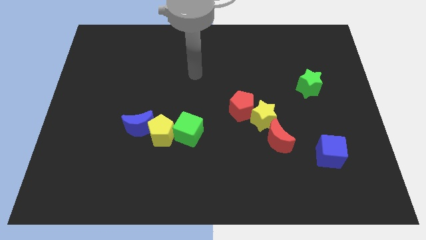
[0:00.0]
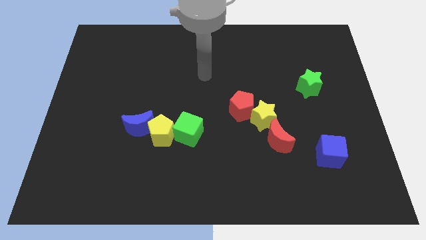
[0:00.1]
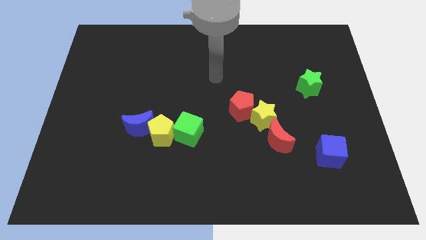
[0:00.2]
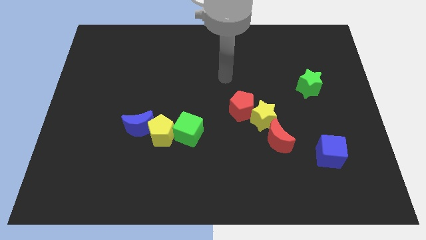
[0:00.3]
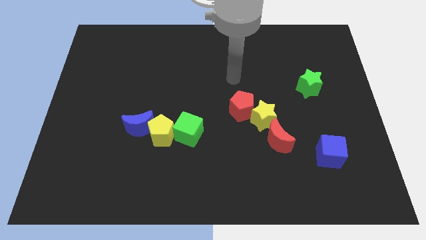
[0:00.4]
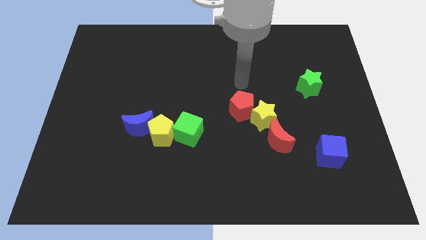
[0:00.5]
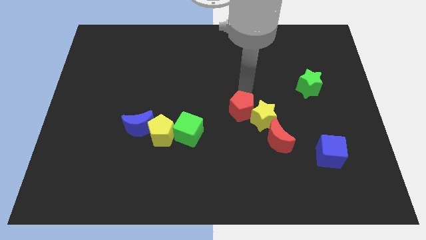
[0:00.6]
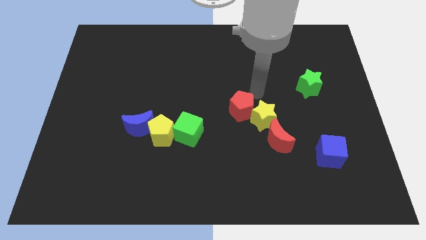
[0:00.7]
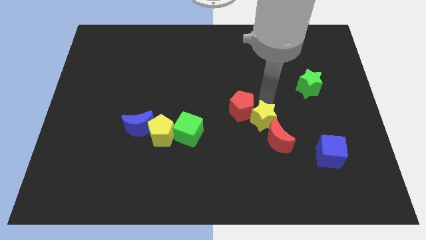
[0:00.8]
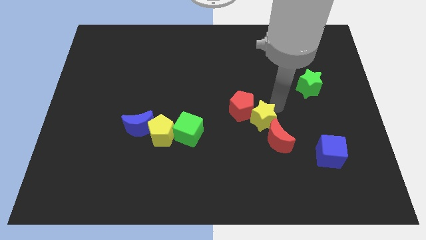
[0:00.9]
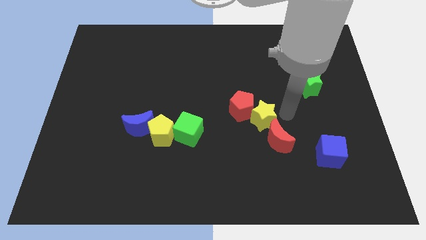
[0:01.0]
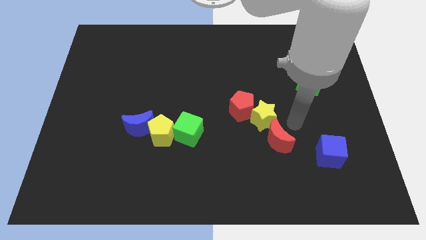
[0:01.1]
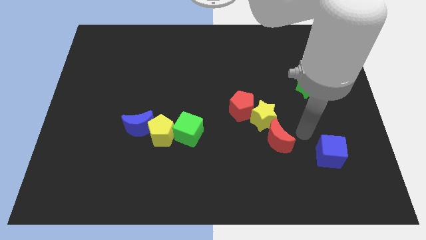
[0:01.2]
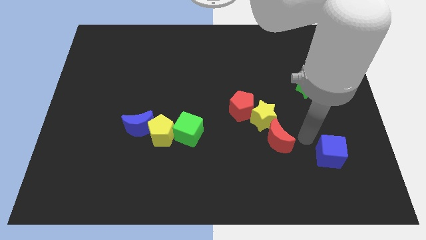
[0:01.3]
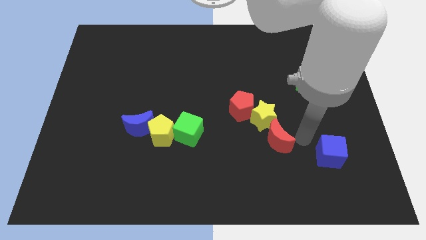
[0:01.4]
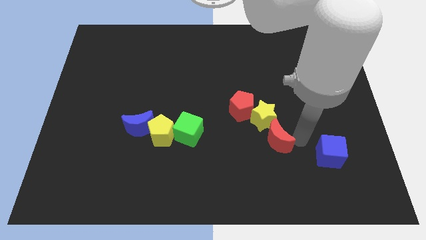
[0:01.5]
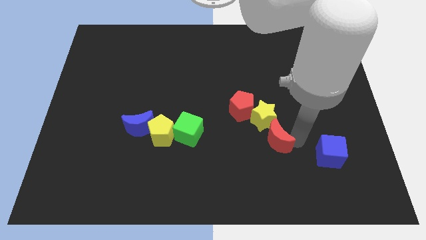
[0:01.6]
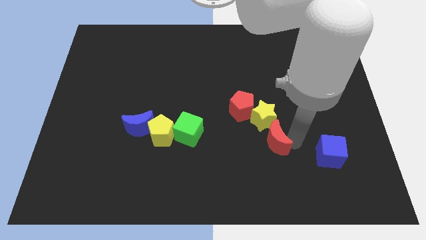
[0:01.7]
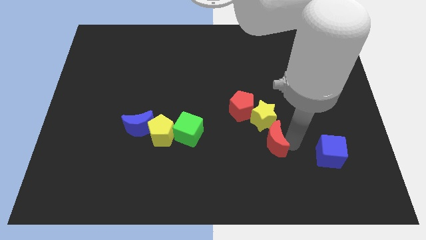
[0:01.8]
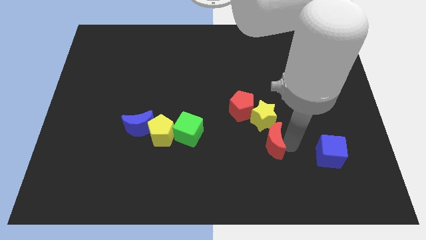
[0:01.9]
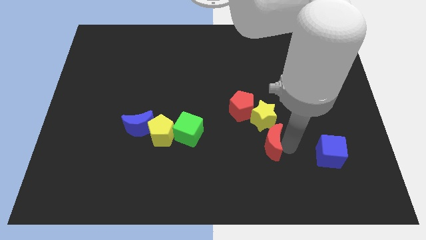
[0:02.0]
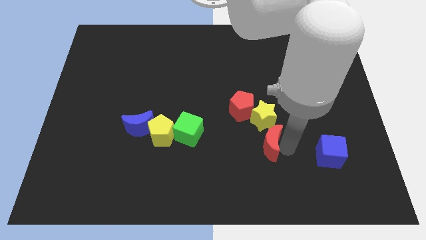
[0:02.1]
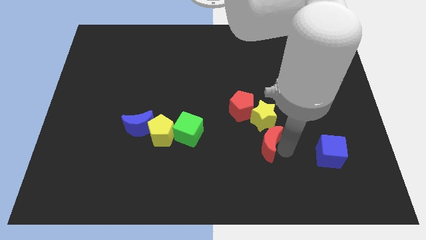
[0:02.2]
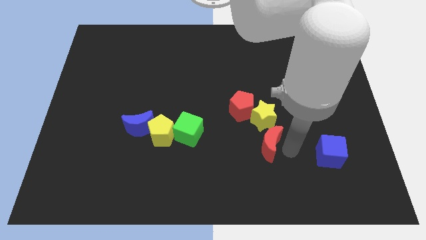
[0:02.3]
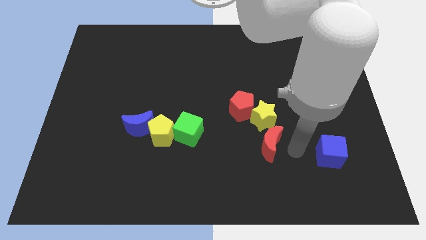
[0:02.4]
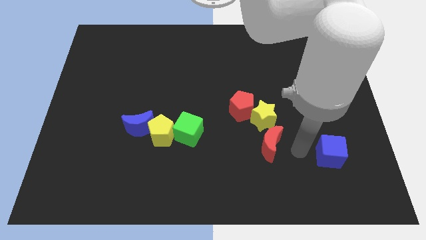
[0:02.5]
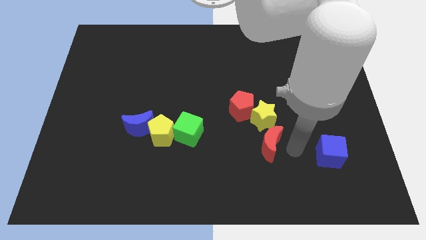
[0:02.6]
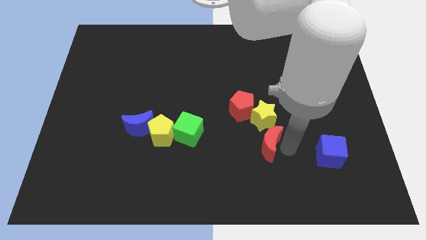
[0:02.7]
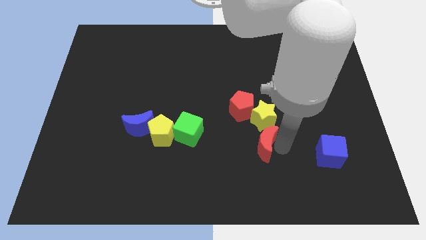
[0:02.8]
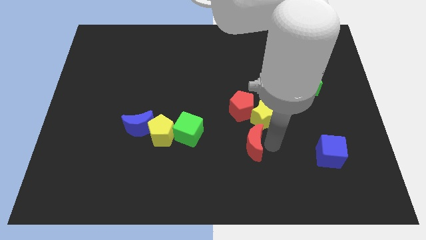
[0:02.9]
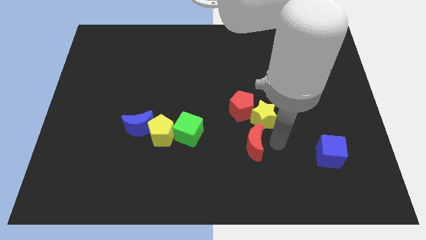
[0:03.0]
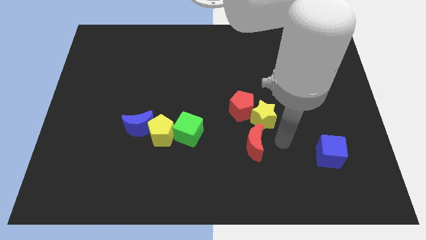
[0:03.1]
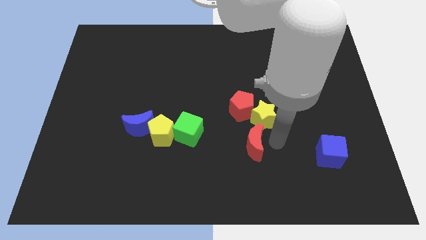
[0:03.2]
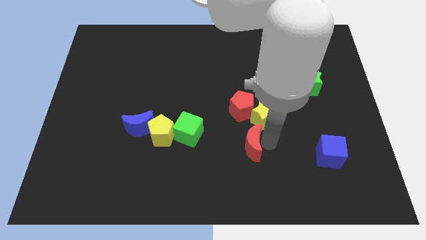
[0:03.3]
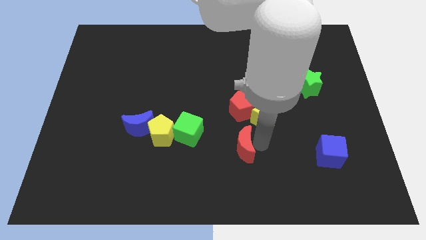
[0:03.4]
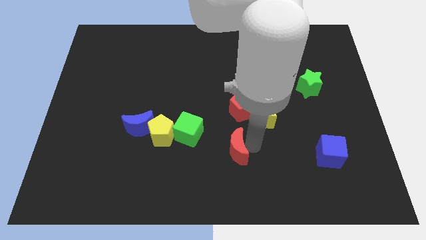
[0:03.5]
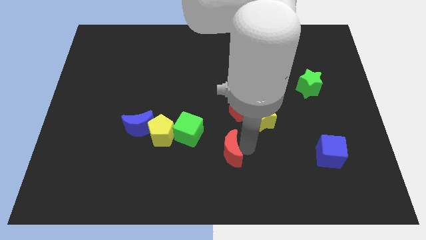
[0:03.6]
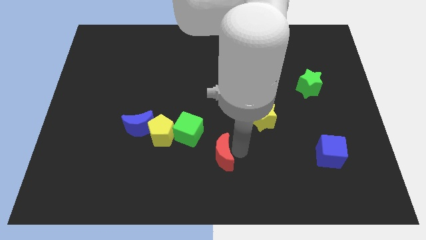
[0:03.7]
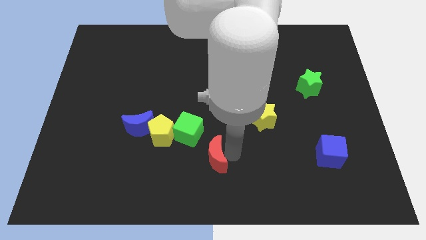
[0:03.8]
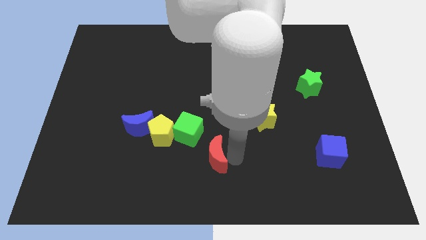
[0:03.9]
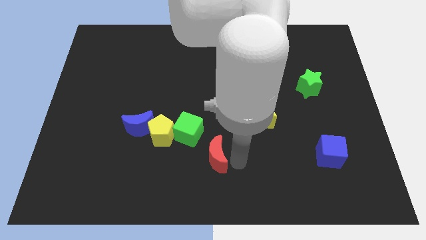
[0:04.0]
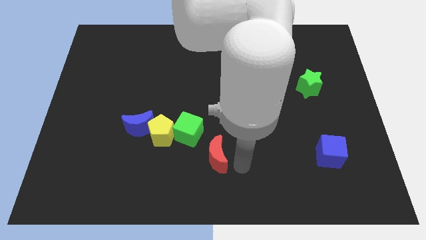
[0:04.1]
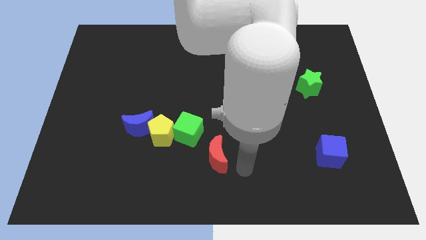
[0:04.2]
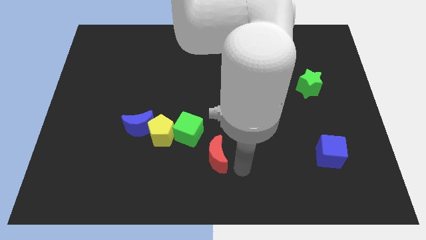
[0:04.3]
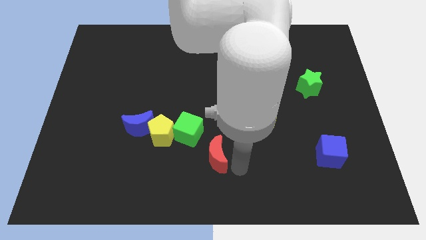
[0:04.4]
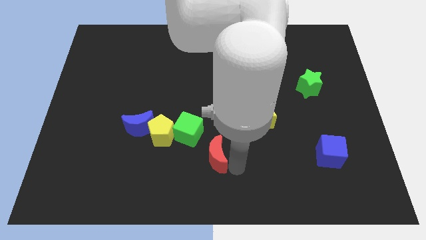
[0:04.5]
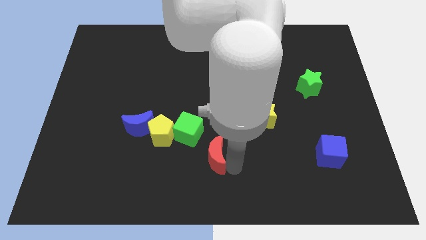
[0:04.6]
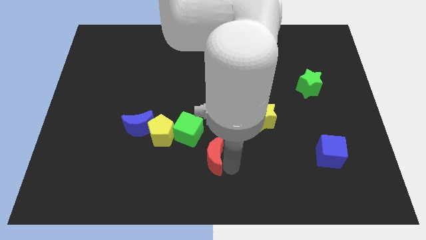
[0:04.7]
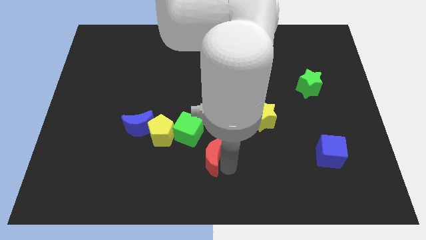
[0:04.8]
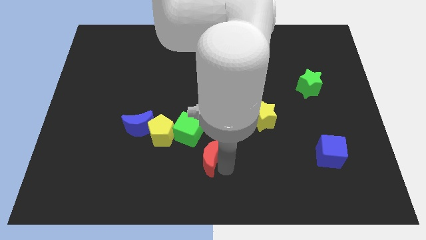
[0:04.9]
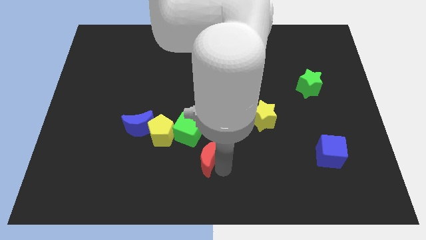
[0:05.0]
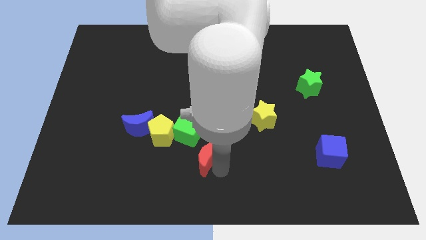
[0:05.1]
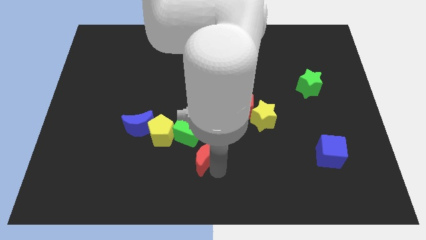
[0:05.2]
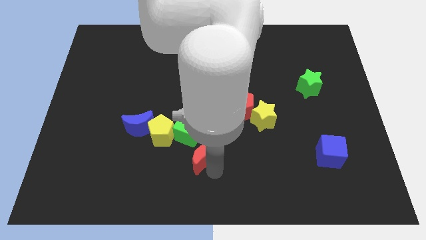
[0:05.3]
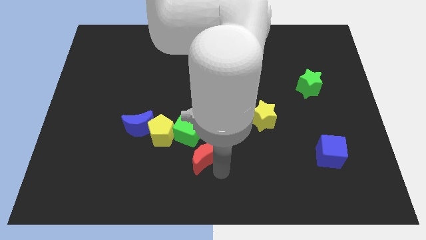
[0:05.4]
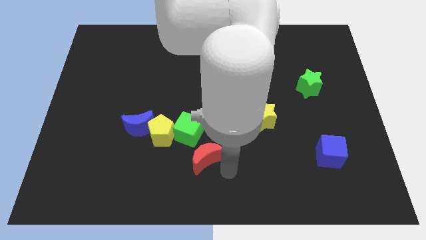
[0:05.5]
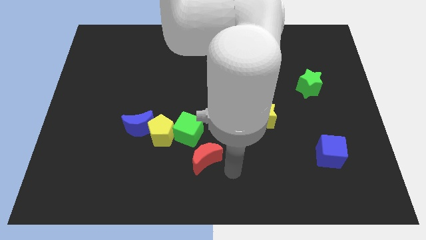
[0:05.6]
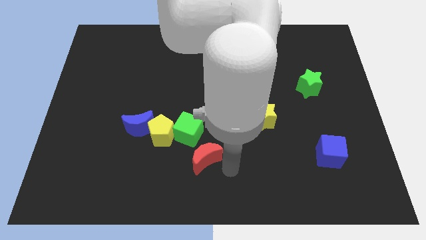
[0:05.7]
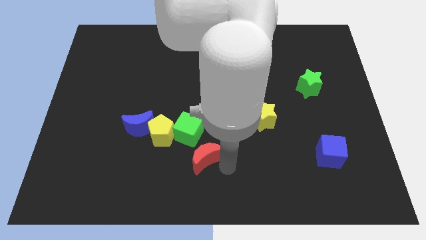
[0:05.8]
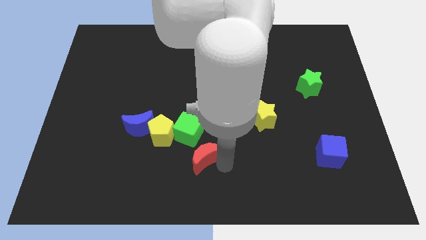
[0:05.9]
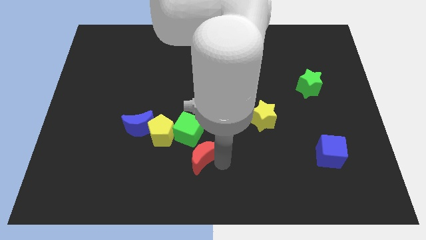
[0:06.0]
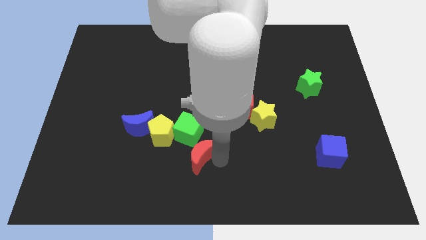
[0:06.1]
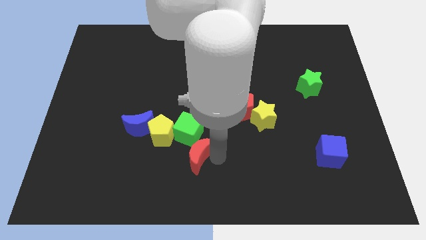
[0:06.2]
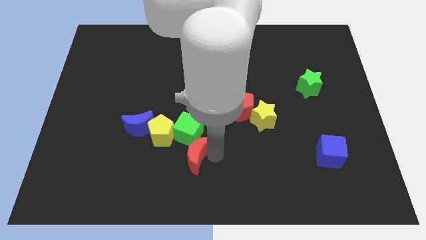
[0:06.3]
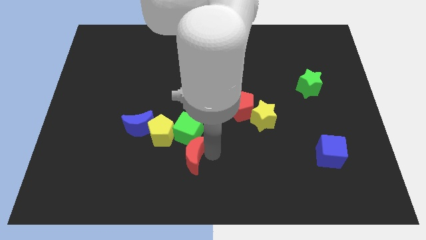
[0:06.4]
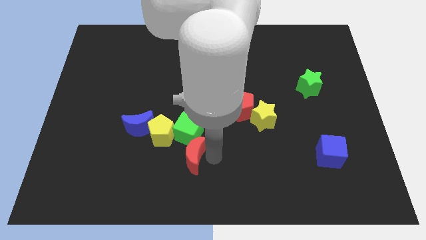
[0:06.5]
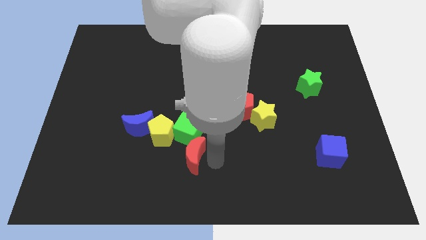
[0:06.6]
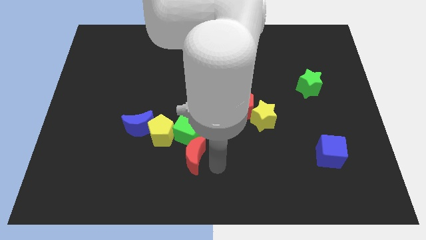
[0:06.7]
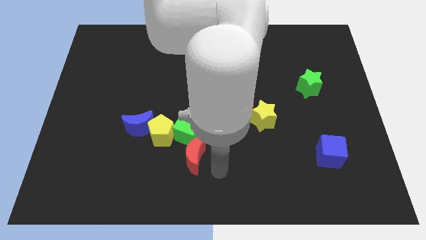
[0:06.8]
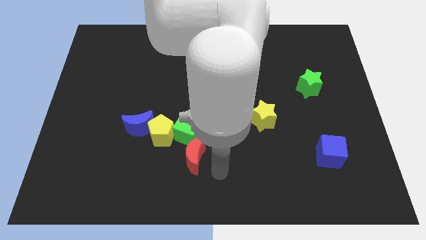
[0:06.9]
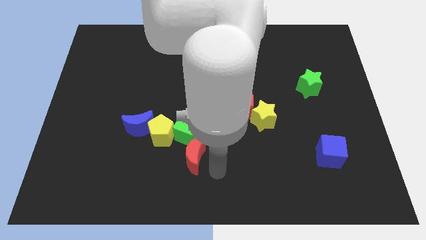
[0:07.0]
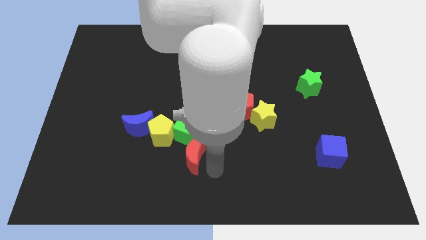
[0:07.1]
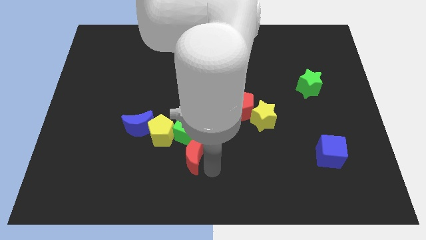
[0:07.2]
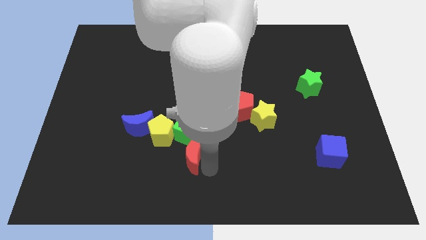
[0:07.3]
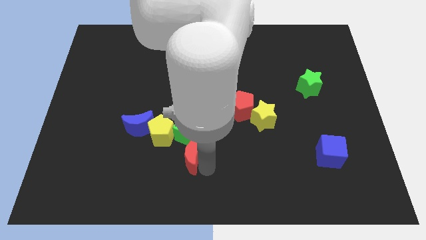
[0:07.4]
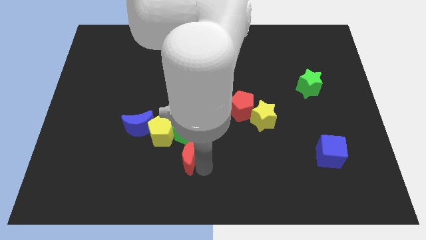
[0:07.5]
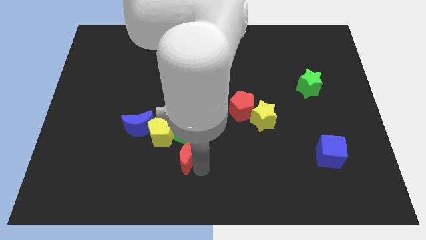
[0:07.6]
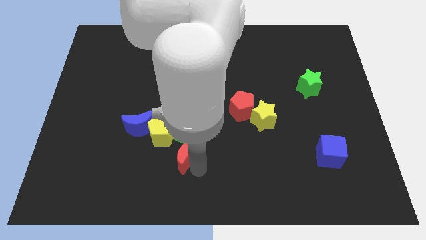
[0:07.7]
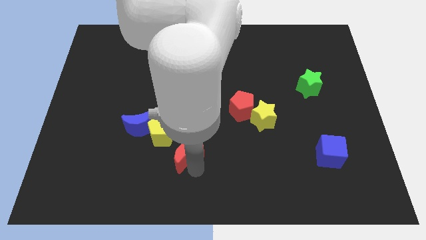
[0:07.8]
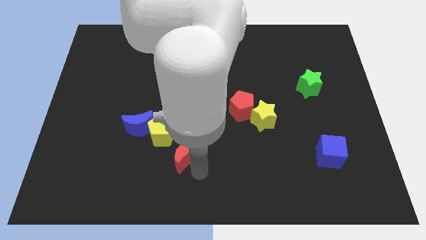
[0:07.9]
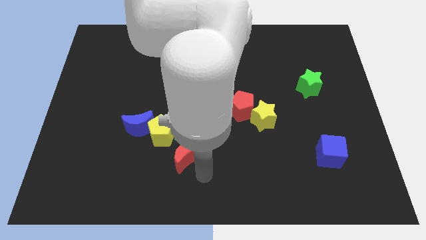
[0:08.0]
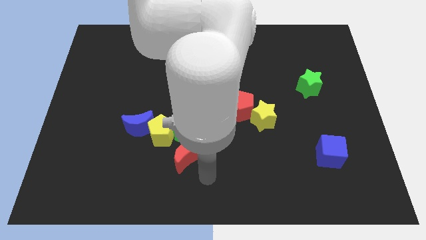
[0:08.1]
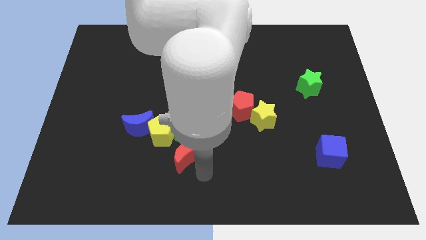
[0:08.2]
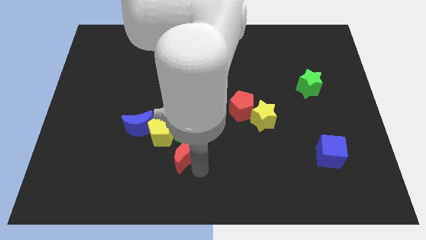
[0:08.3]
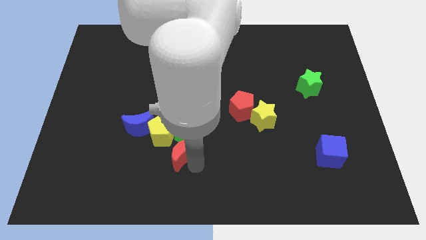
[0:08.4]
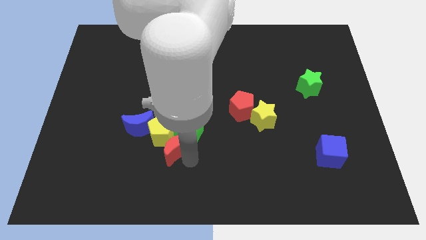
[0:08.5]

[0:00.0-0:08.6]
put the red moon close to the yellow pentagon
